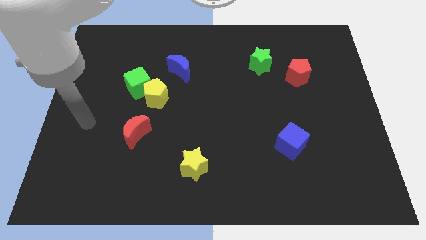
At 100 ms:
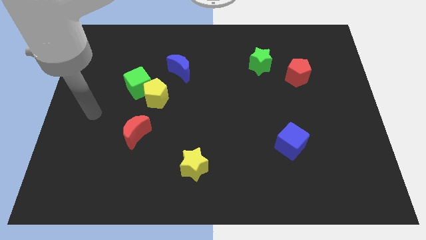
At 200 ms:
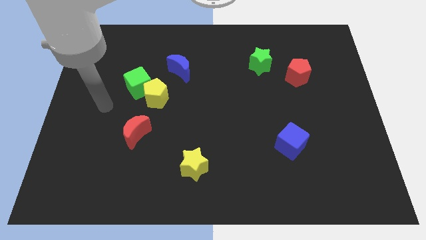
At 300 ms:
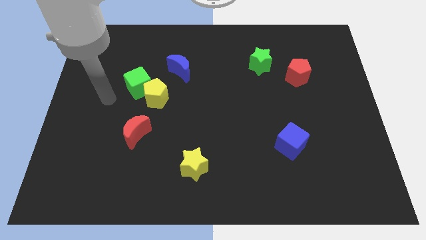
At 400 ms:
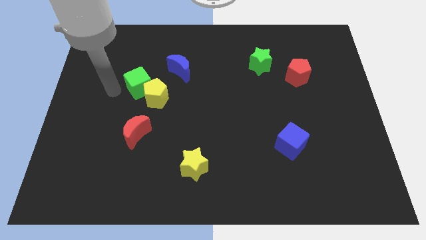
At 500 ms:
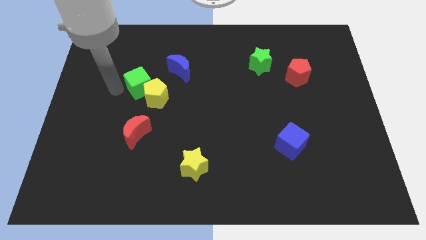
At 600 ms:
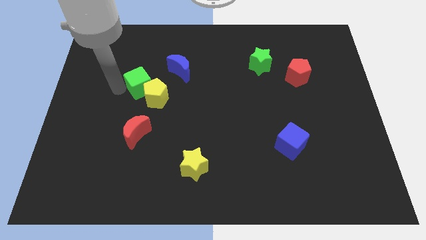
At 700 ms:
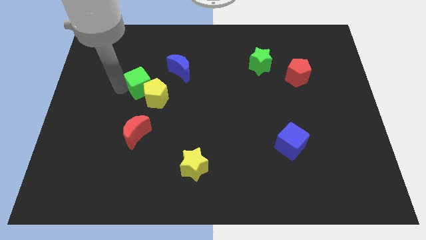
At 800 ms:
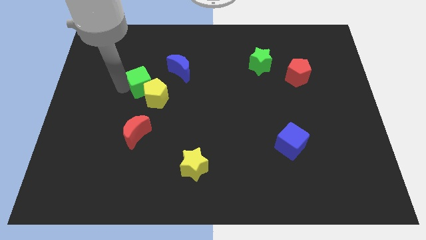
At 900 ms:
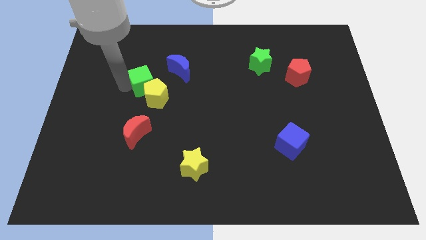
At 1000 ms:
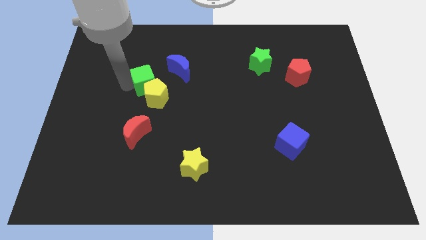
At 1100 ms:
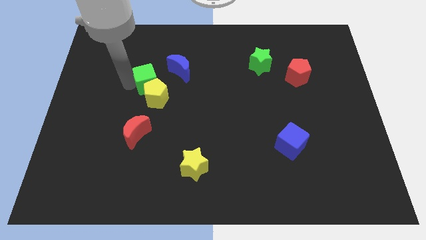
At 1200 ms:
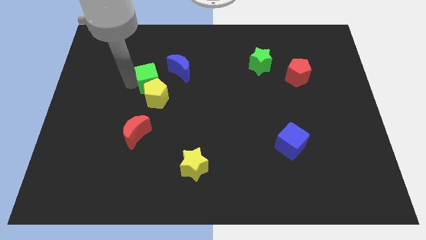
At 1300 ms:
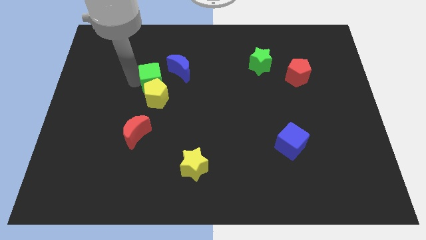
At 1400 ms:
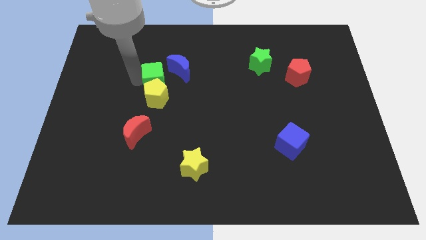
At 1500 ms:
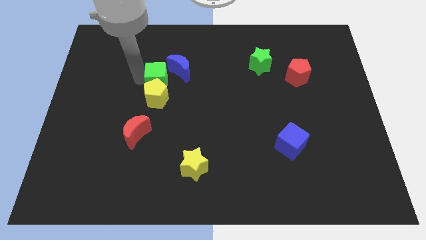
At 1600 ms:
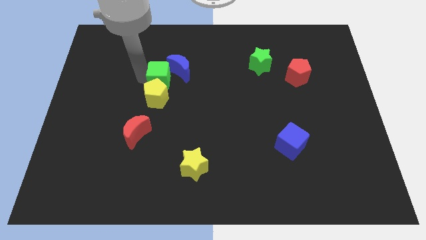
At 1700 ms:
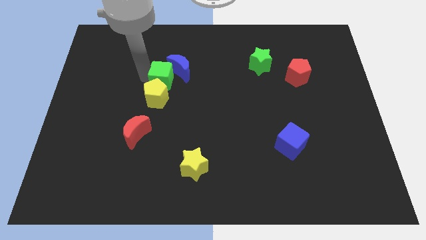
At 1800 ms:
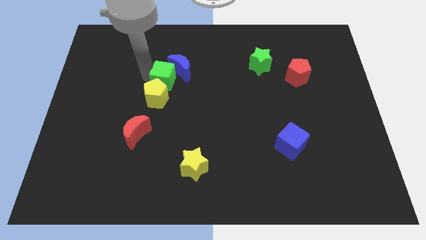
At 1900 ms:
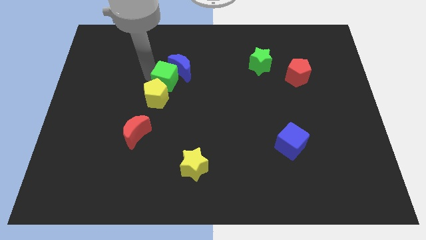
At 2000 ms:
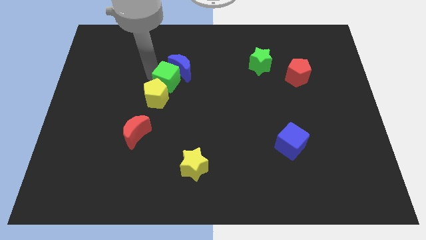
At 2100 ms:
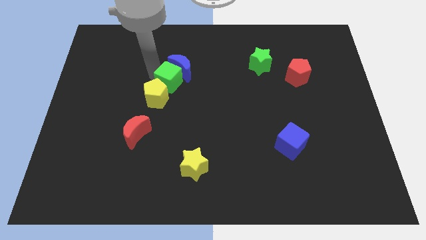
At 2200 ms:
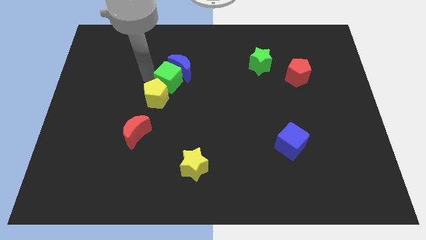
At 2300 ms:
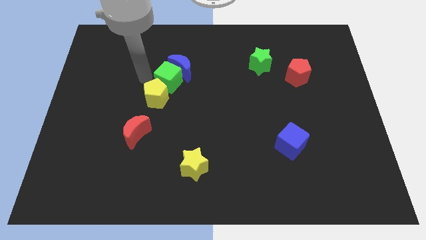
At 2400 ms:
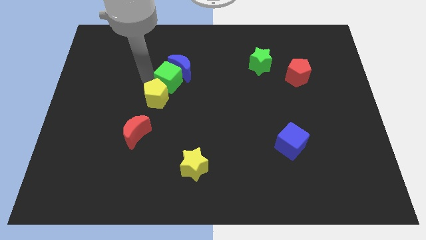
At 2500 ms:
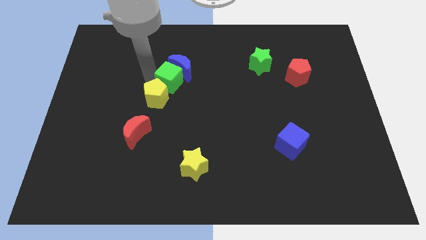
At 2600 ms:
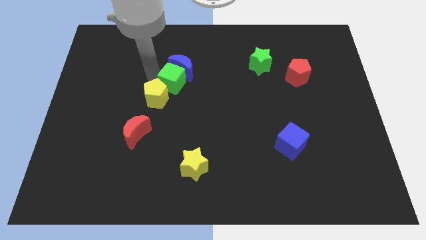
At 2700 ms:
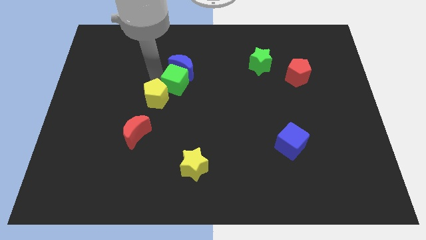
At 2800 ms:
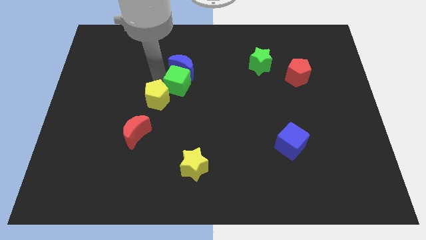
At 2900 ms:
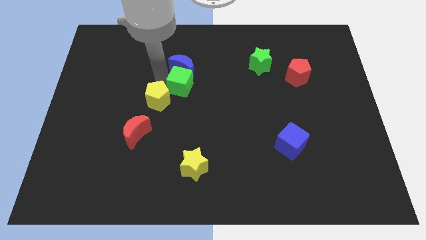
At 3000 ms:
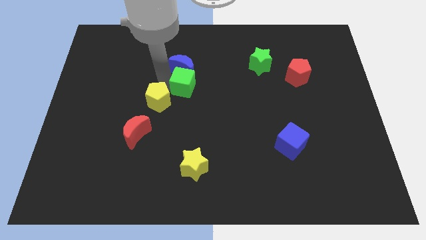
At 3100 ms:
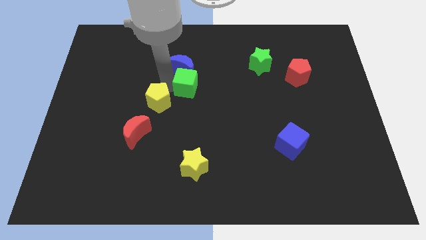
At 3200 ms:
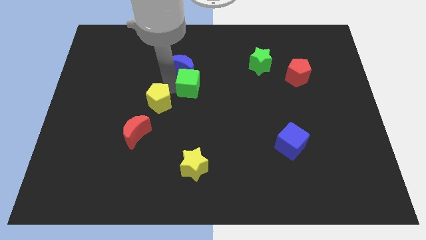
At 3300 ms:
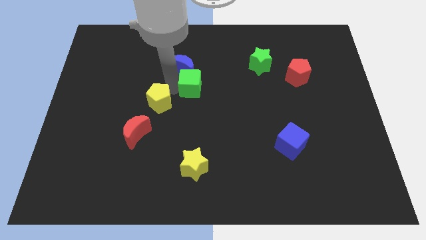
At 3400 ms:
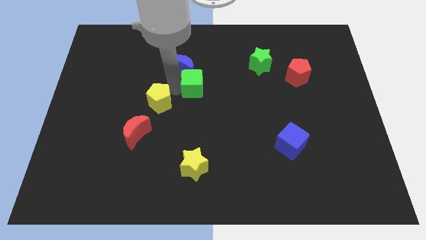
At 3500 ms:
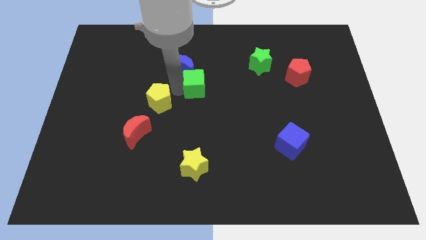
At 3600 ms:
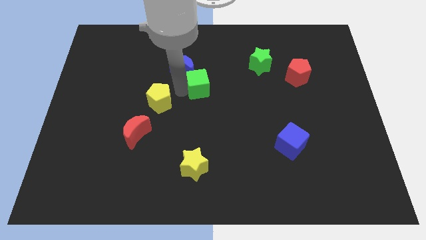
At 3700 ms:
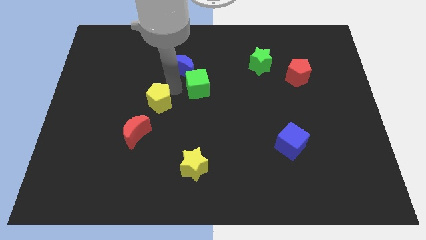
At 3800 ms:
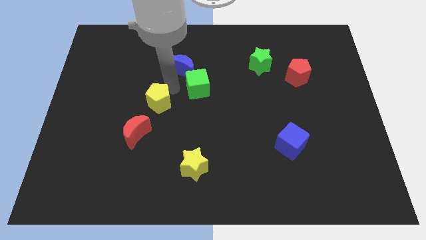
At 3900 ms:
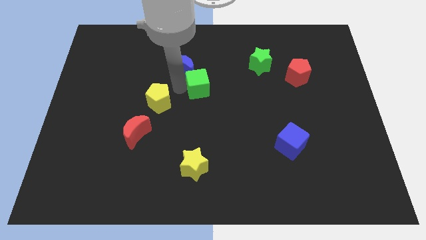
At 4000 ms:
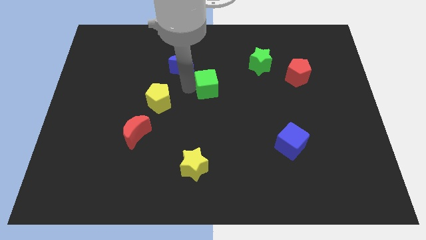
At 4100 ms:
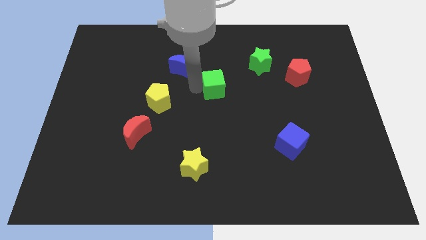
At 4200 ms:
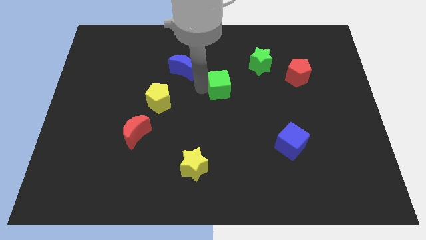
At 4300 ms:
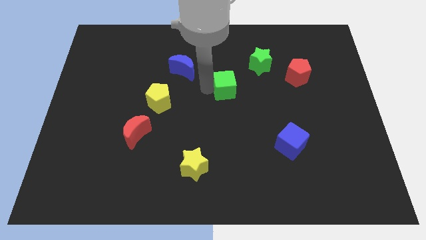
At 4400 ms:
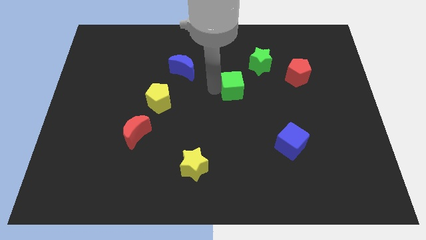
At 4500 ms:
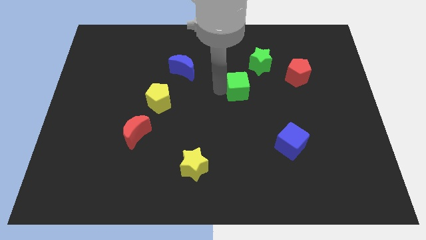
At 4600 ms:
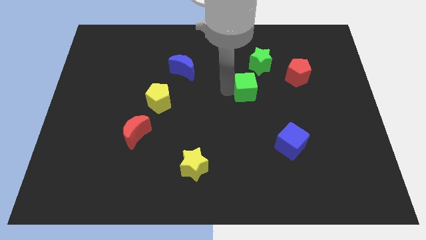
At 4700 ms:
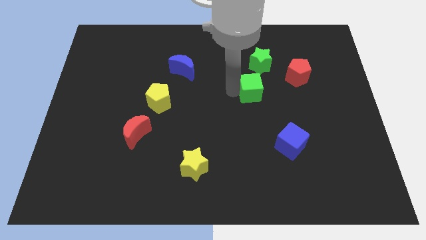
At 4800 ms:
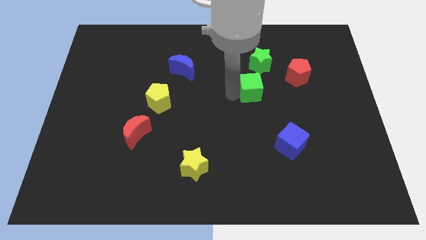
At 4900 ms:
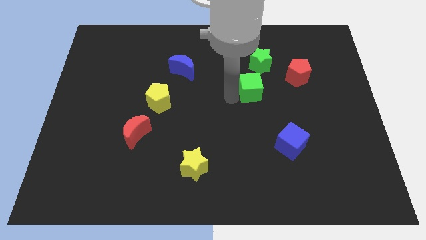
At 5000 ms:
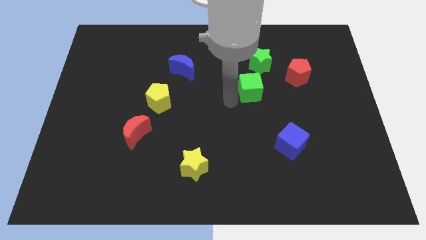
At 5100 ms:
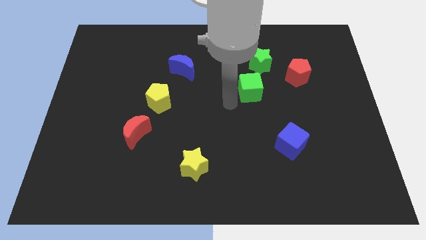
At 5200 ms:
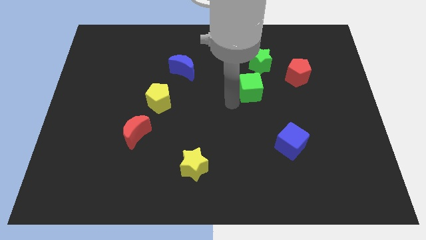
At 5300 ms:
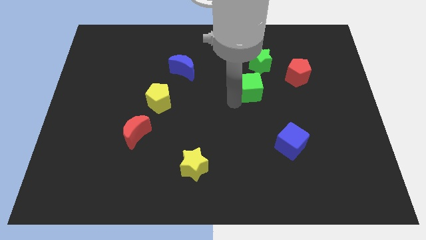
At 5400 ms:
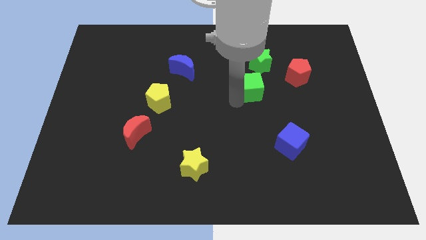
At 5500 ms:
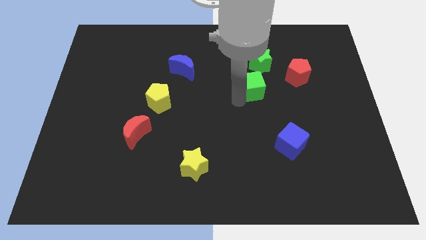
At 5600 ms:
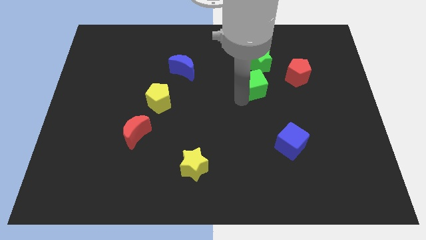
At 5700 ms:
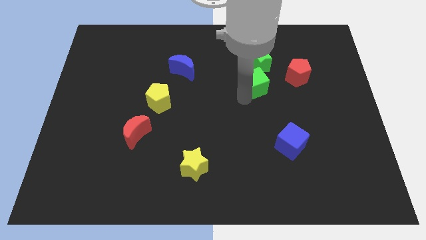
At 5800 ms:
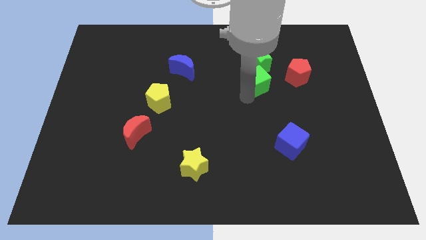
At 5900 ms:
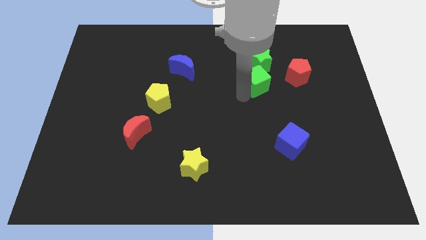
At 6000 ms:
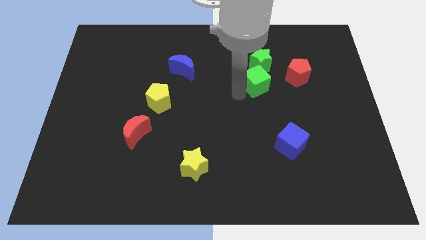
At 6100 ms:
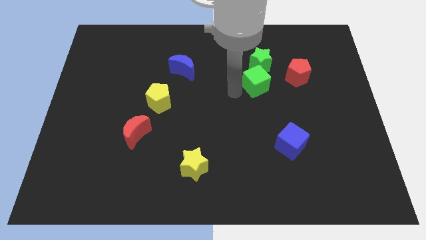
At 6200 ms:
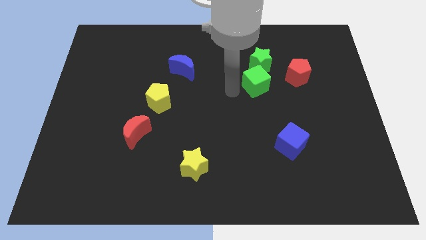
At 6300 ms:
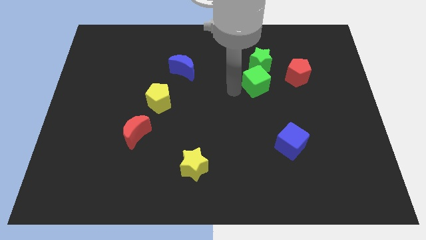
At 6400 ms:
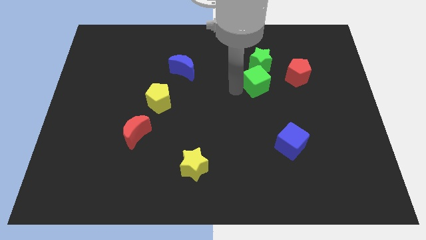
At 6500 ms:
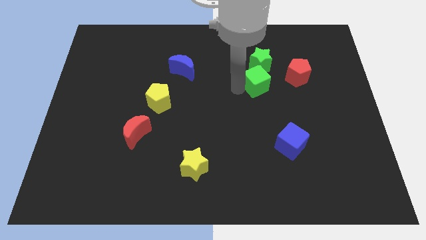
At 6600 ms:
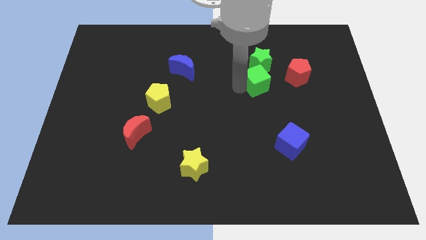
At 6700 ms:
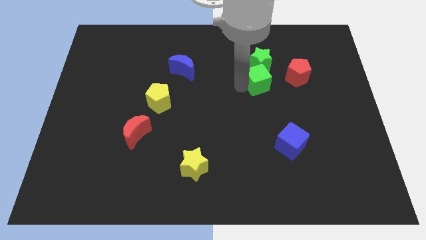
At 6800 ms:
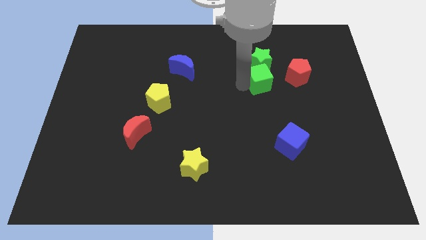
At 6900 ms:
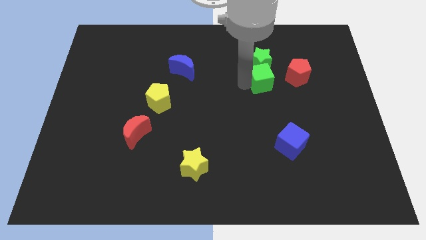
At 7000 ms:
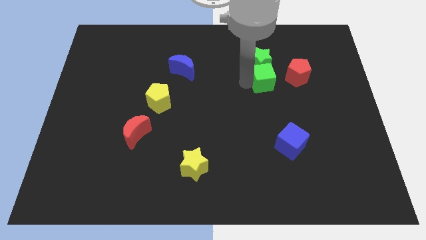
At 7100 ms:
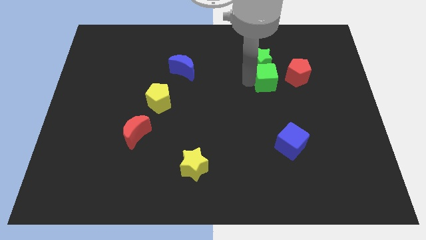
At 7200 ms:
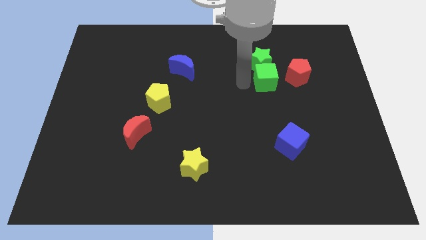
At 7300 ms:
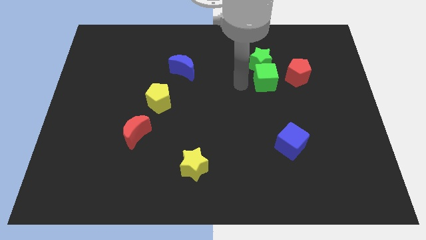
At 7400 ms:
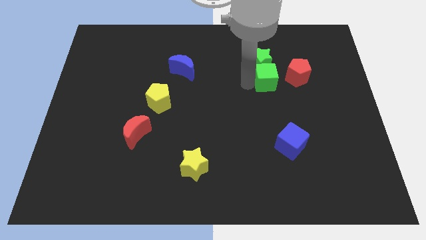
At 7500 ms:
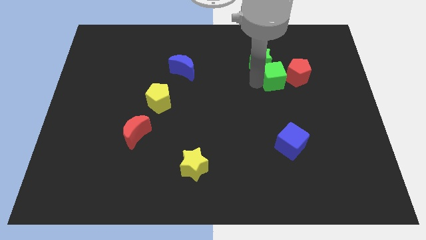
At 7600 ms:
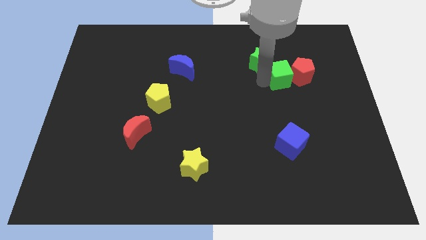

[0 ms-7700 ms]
move the green cube next to the red pentagon
